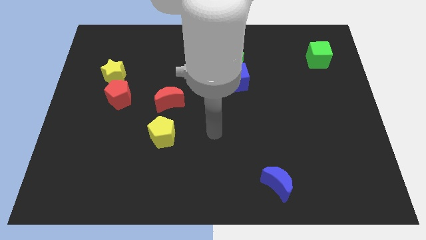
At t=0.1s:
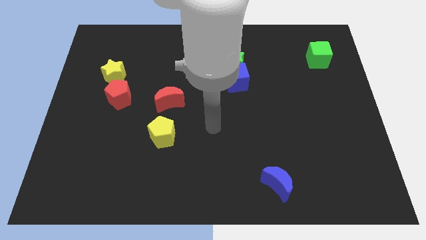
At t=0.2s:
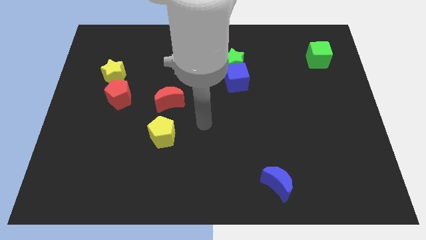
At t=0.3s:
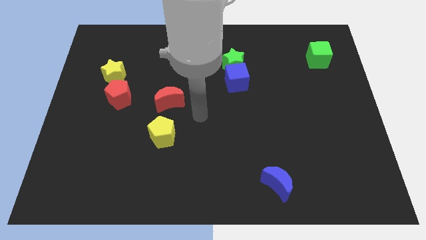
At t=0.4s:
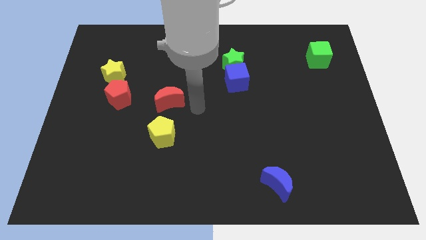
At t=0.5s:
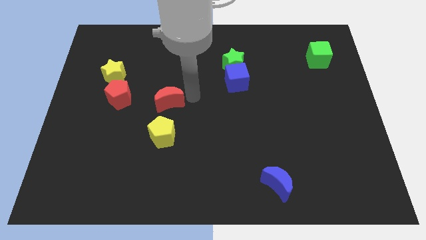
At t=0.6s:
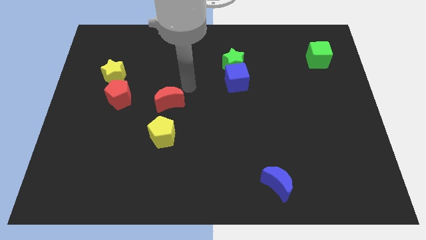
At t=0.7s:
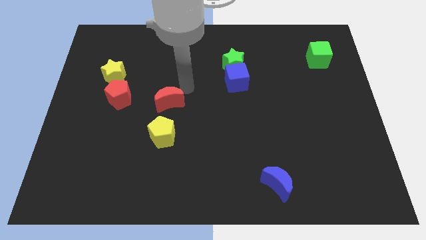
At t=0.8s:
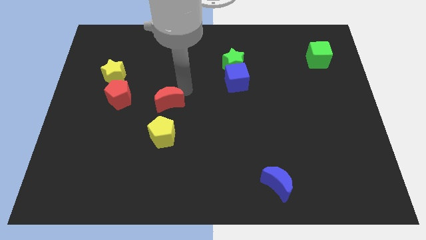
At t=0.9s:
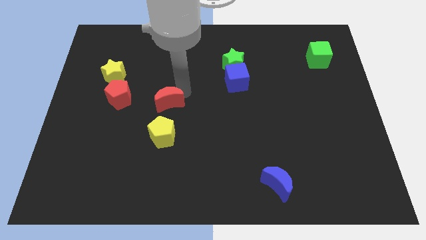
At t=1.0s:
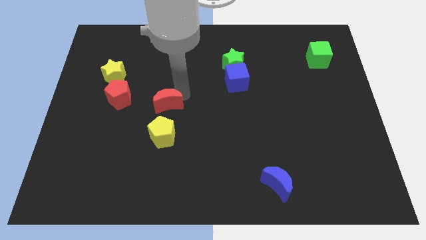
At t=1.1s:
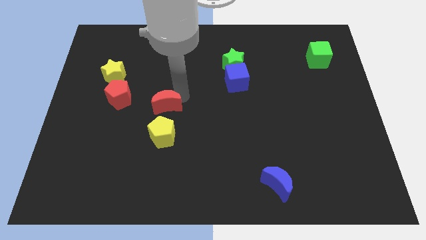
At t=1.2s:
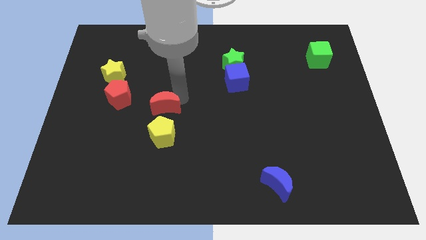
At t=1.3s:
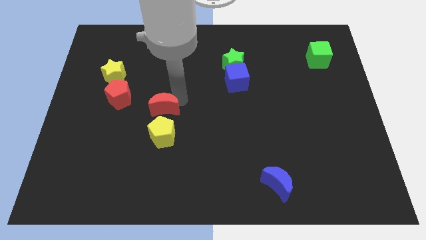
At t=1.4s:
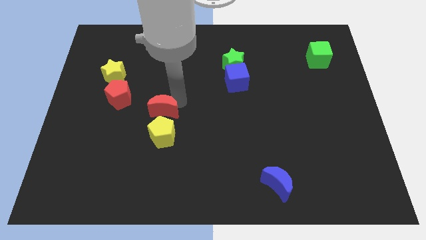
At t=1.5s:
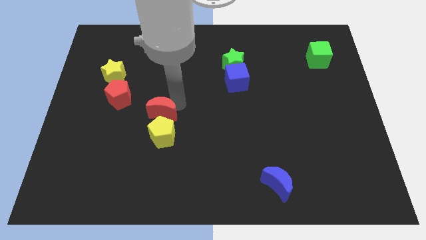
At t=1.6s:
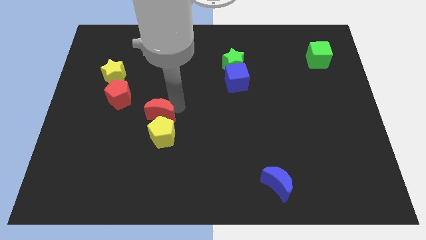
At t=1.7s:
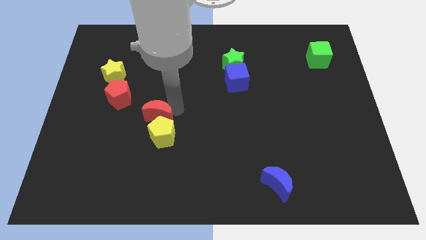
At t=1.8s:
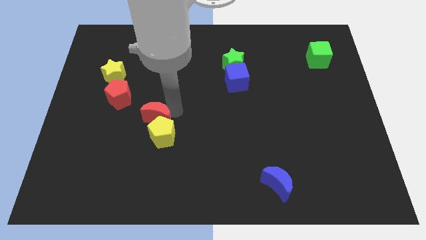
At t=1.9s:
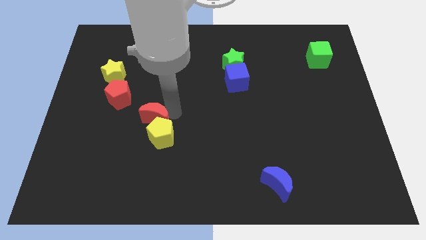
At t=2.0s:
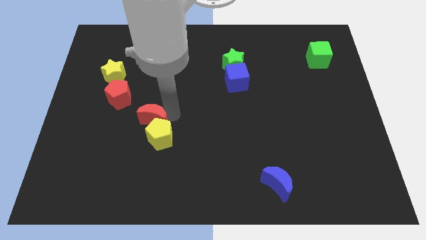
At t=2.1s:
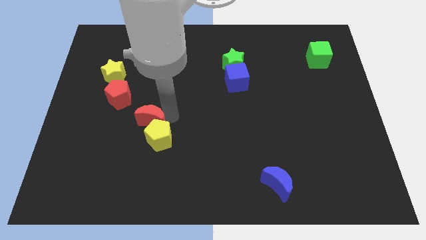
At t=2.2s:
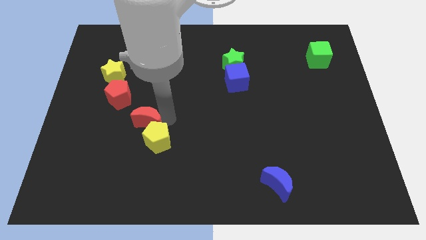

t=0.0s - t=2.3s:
move the red moon a little bit downwards and to the left

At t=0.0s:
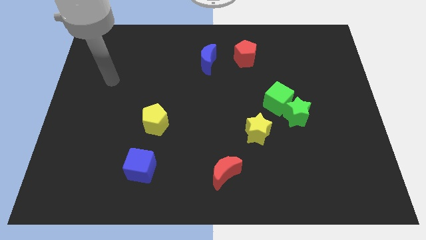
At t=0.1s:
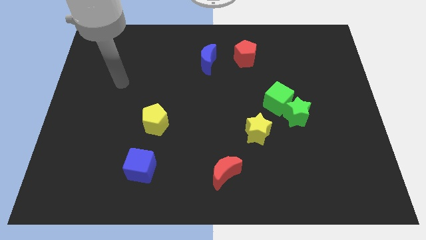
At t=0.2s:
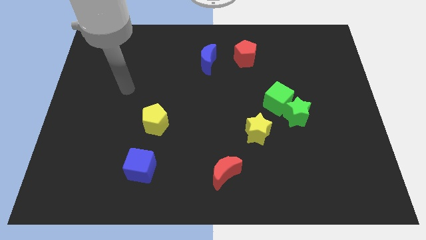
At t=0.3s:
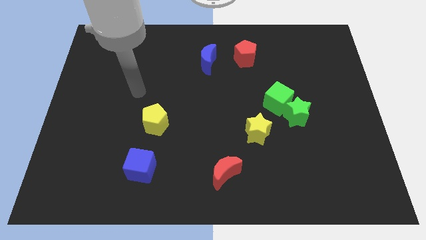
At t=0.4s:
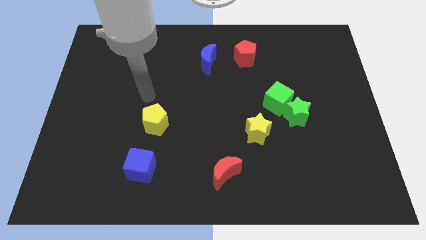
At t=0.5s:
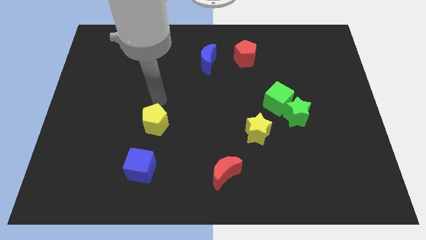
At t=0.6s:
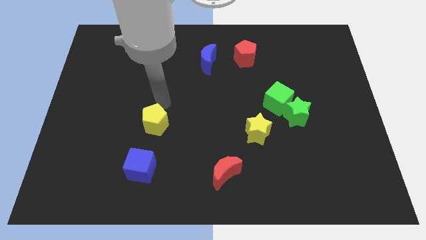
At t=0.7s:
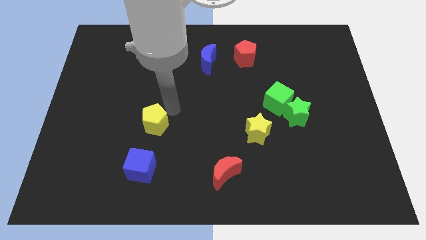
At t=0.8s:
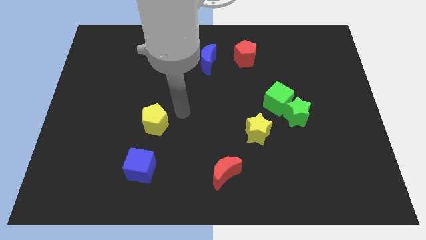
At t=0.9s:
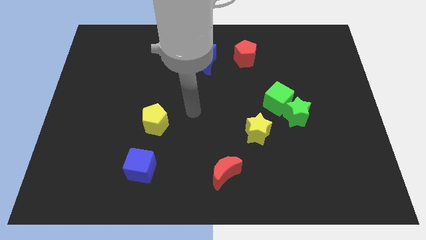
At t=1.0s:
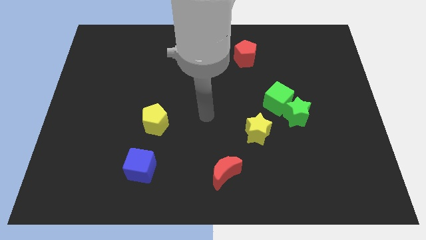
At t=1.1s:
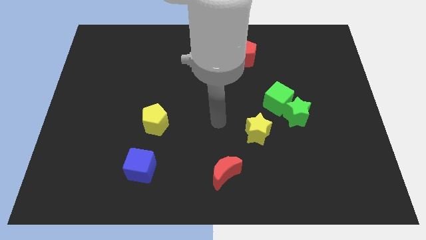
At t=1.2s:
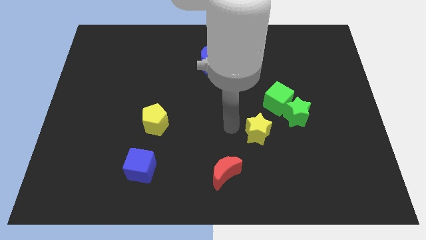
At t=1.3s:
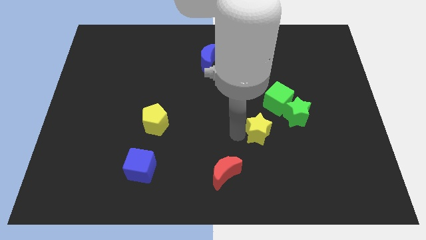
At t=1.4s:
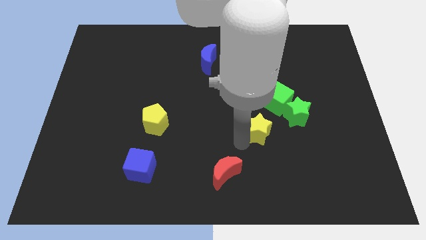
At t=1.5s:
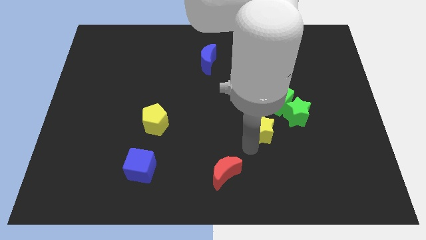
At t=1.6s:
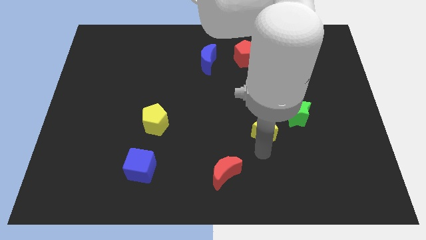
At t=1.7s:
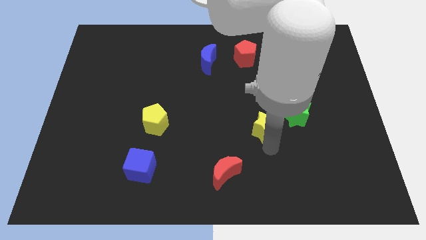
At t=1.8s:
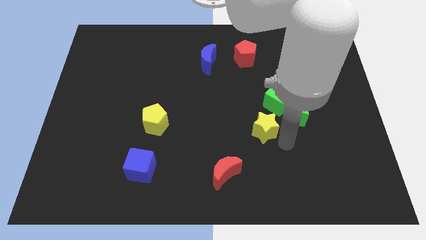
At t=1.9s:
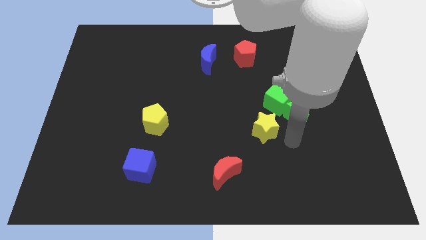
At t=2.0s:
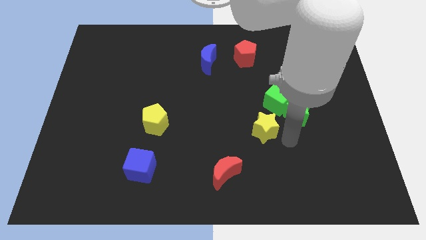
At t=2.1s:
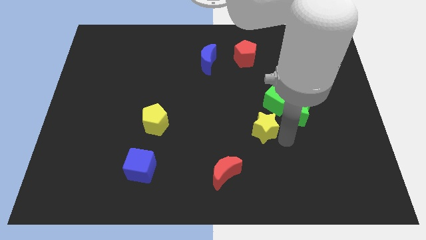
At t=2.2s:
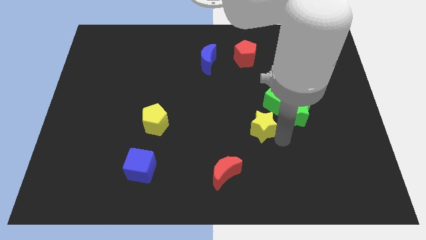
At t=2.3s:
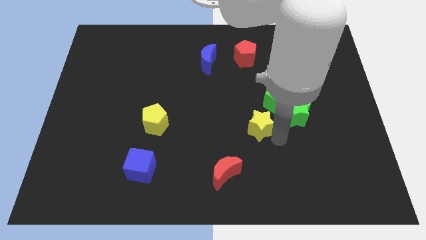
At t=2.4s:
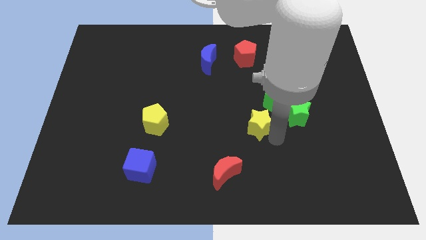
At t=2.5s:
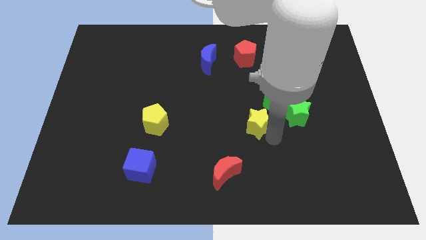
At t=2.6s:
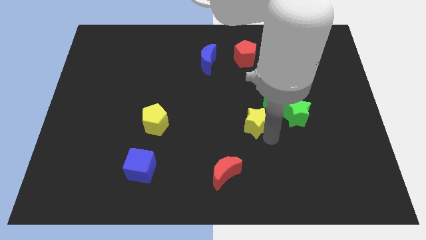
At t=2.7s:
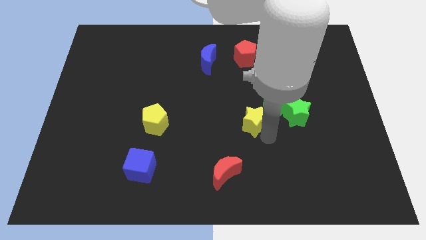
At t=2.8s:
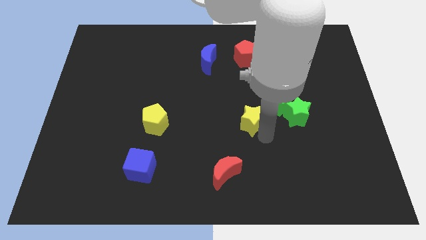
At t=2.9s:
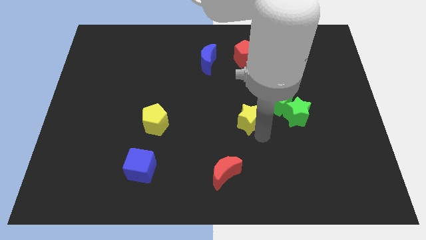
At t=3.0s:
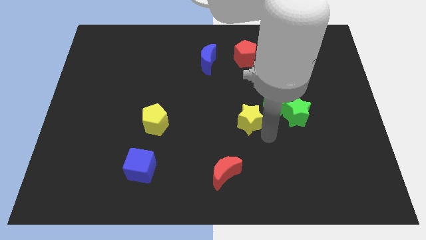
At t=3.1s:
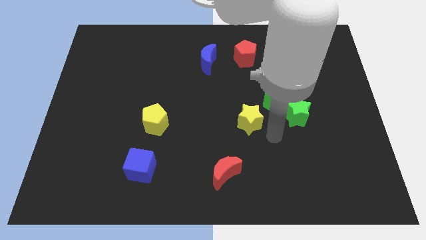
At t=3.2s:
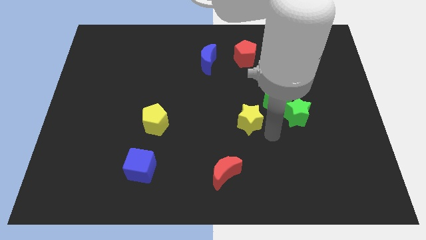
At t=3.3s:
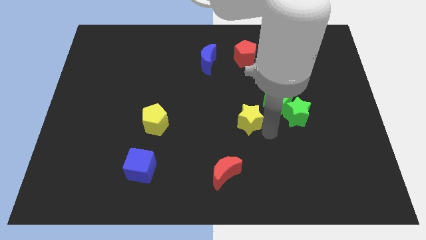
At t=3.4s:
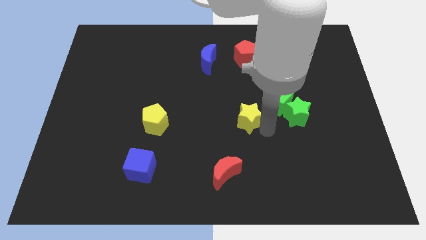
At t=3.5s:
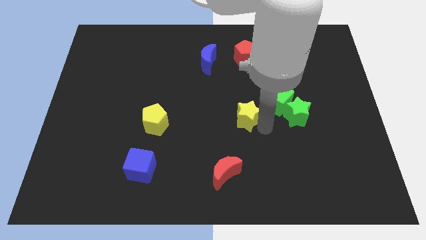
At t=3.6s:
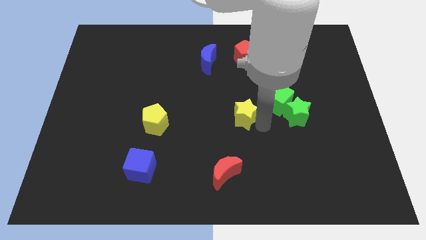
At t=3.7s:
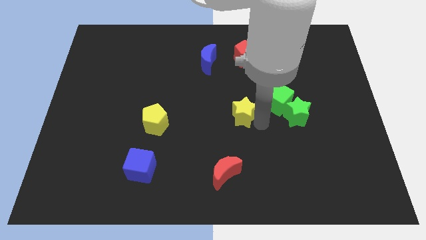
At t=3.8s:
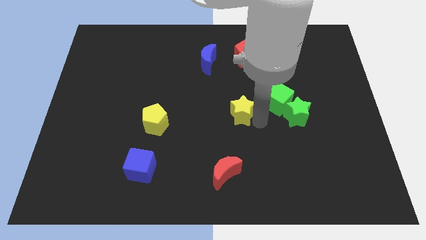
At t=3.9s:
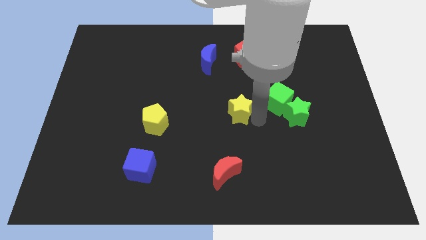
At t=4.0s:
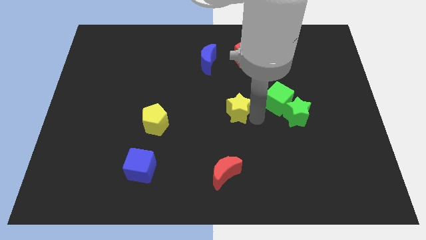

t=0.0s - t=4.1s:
slightly move the yellow star upwards and then to the left

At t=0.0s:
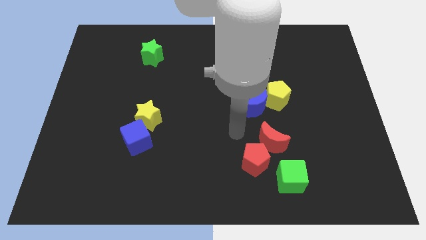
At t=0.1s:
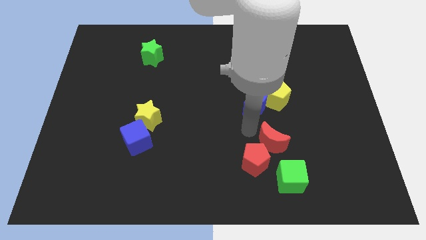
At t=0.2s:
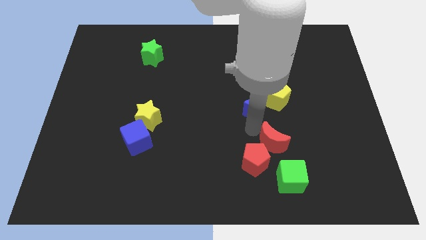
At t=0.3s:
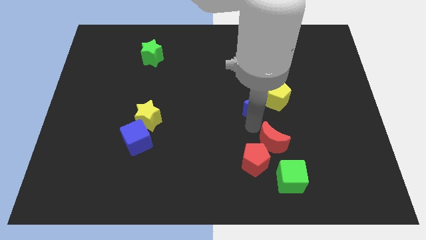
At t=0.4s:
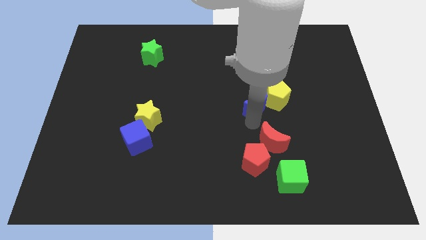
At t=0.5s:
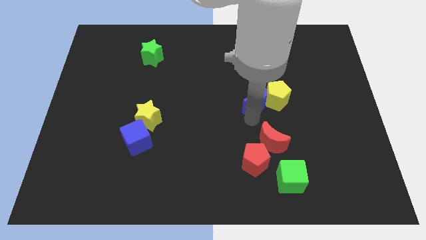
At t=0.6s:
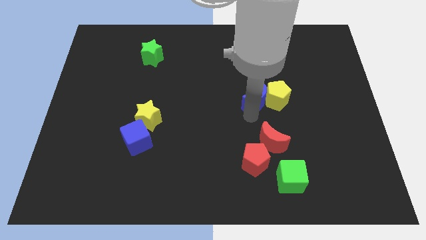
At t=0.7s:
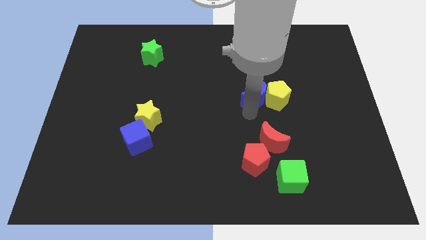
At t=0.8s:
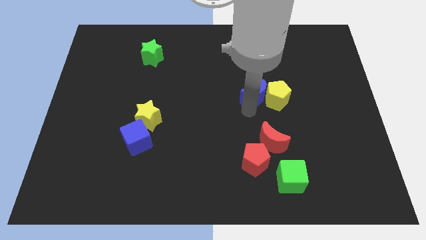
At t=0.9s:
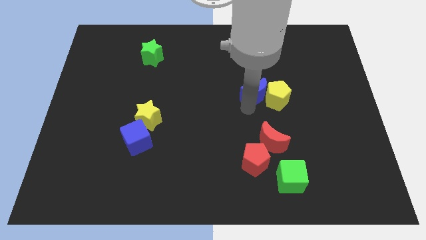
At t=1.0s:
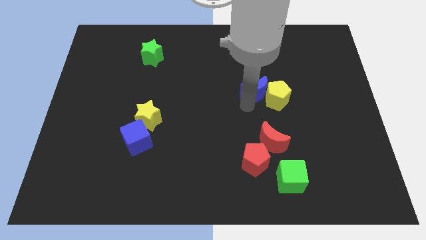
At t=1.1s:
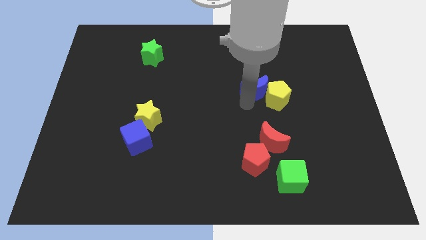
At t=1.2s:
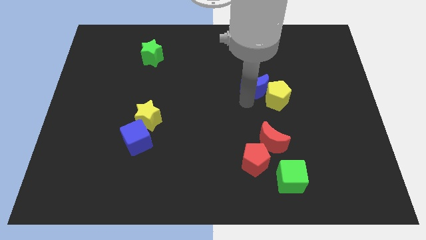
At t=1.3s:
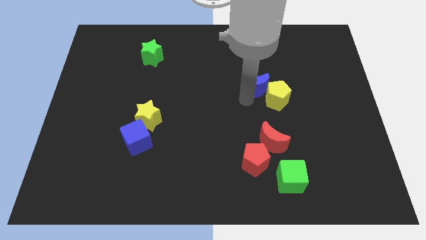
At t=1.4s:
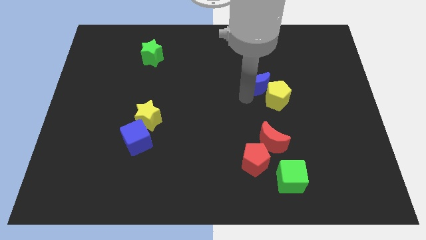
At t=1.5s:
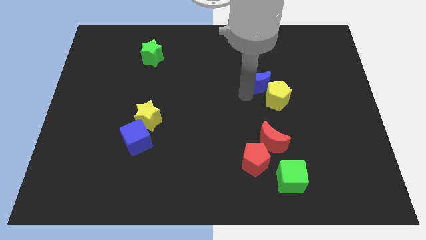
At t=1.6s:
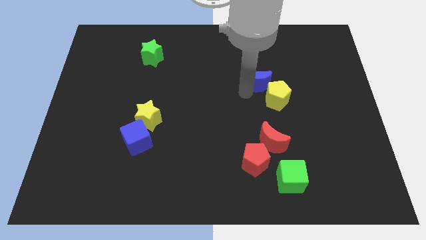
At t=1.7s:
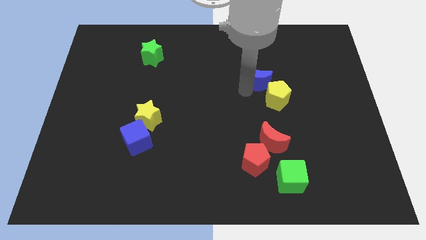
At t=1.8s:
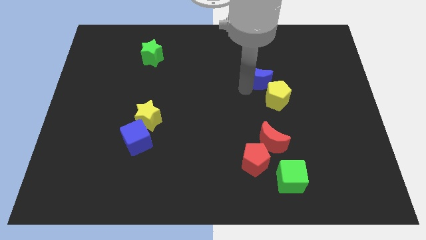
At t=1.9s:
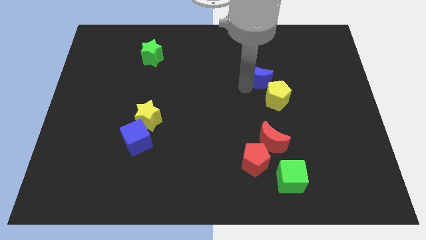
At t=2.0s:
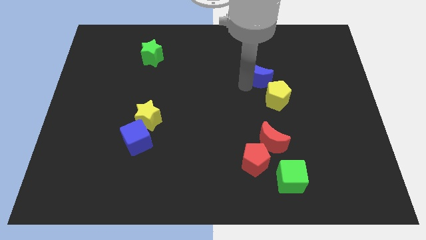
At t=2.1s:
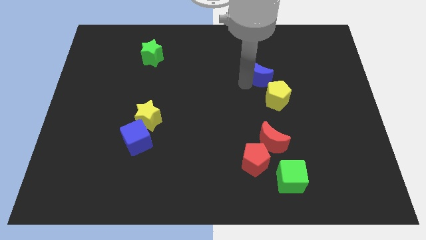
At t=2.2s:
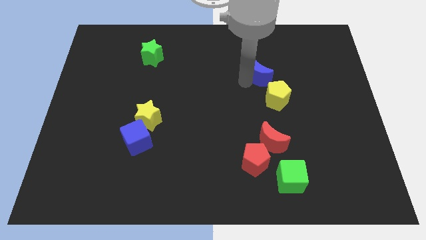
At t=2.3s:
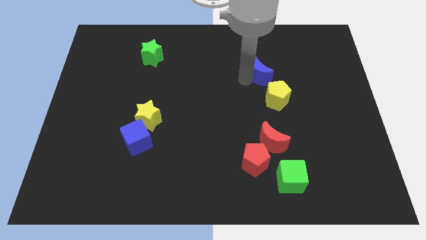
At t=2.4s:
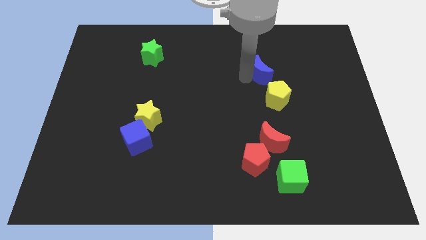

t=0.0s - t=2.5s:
slide the blue moon upwards and to the right diagonally a little bit
